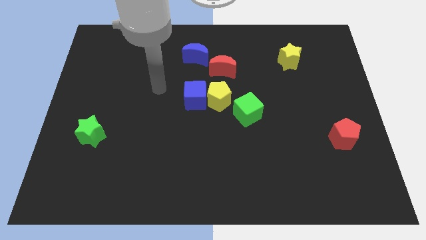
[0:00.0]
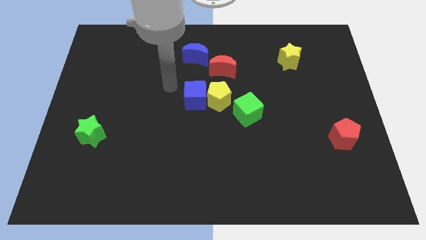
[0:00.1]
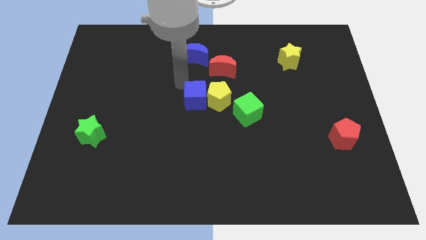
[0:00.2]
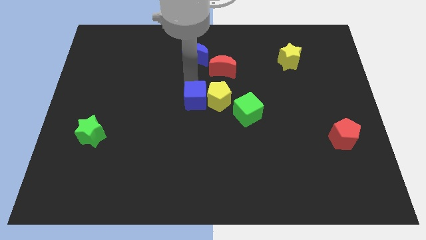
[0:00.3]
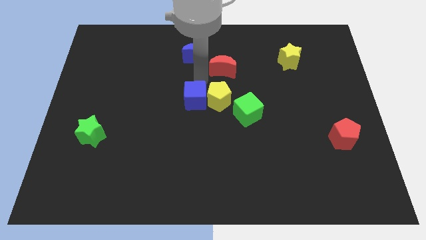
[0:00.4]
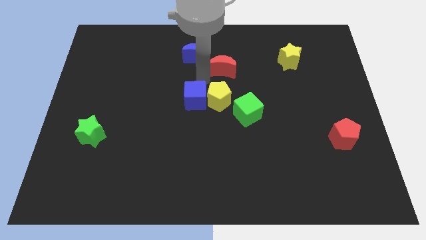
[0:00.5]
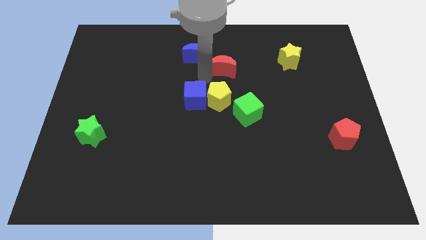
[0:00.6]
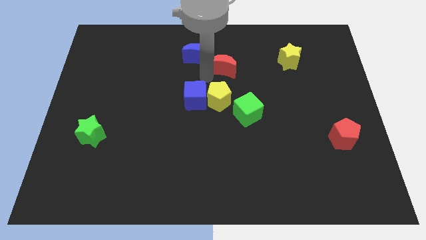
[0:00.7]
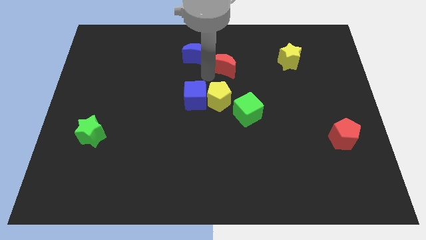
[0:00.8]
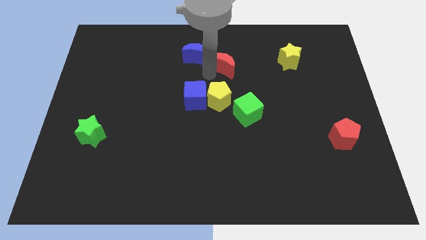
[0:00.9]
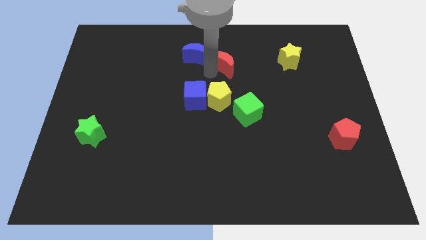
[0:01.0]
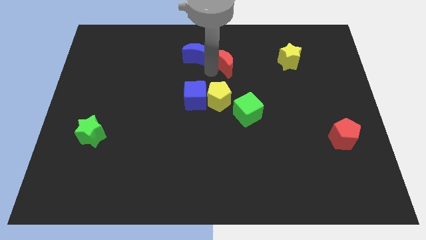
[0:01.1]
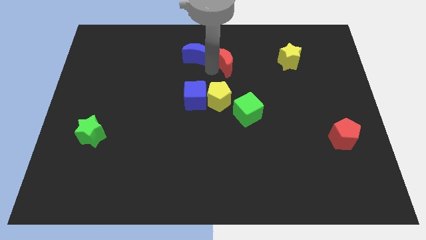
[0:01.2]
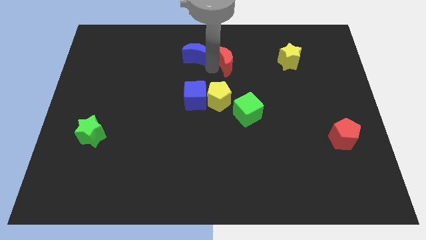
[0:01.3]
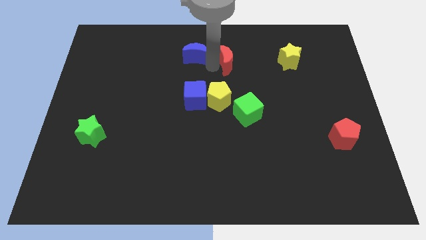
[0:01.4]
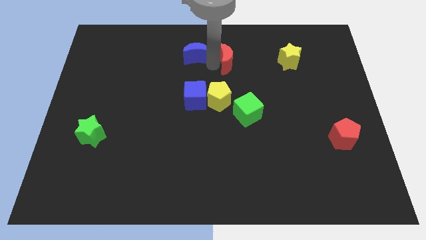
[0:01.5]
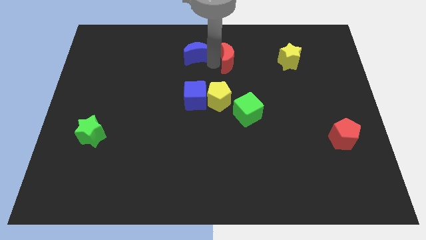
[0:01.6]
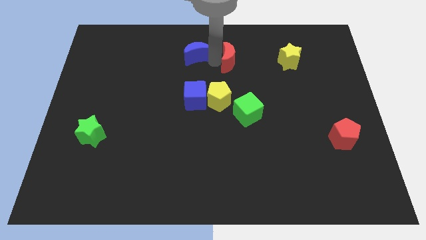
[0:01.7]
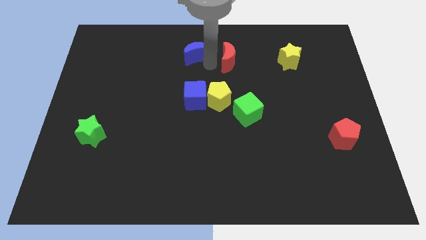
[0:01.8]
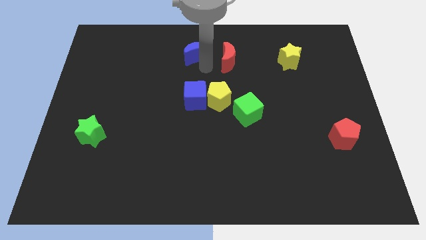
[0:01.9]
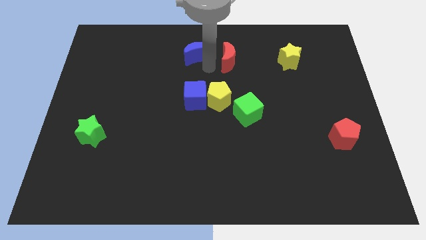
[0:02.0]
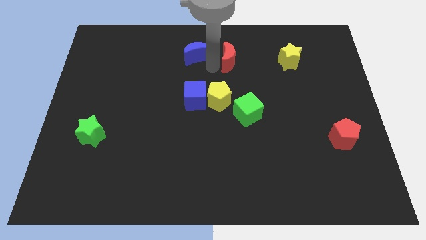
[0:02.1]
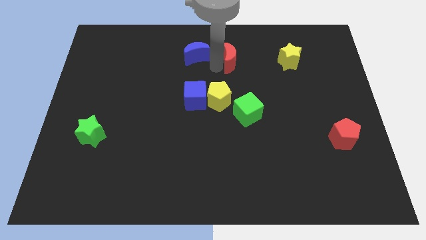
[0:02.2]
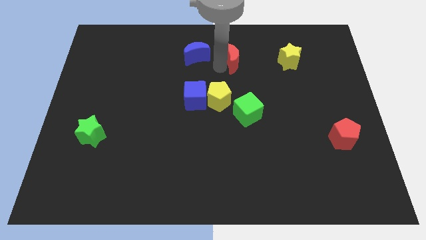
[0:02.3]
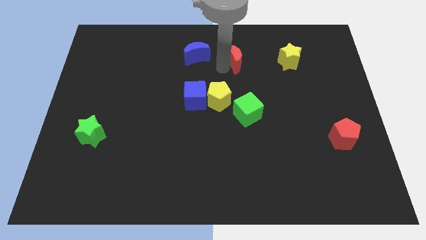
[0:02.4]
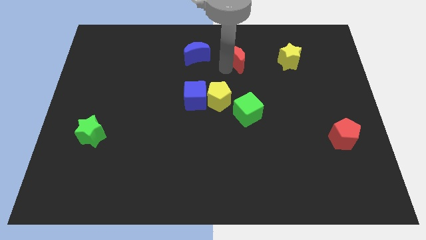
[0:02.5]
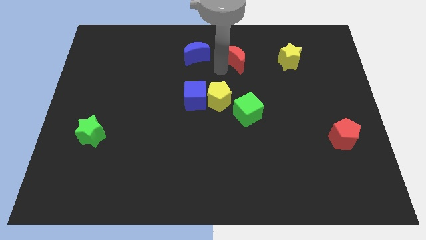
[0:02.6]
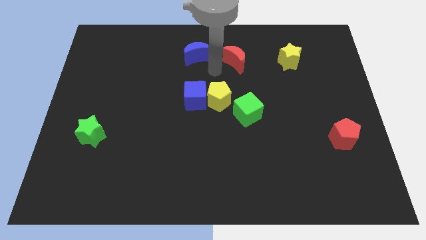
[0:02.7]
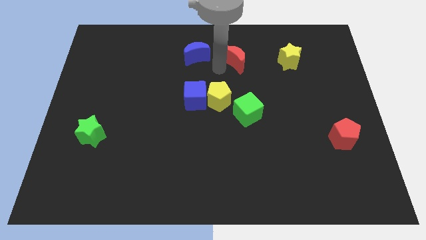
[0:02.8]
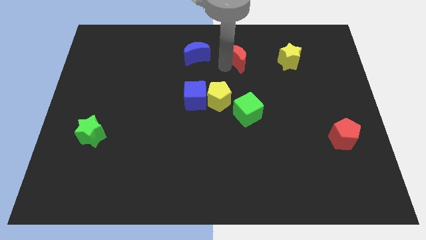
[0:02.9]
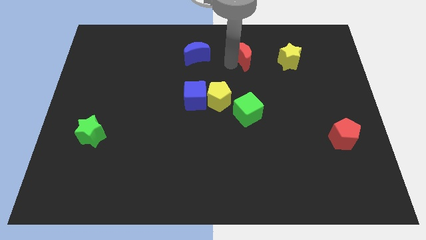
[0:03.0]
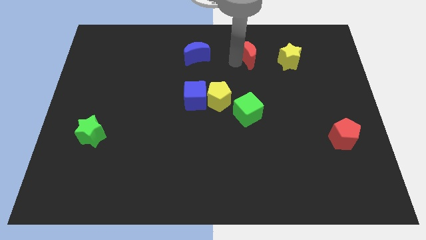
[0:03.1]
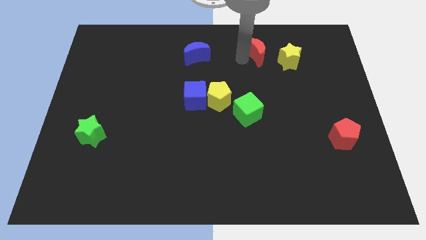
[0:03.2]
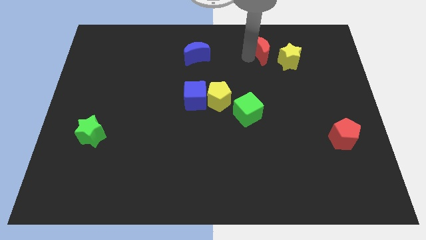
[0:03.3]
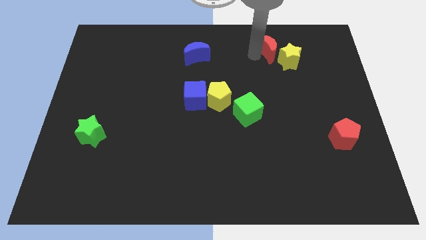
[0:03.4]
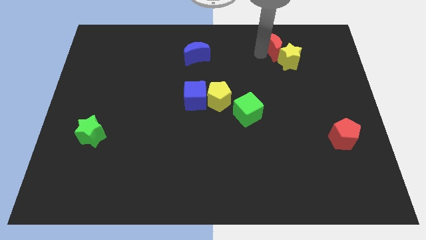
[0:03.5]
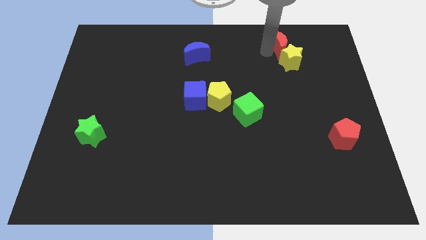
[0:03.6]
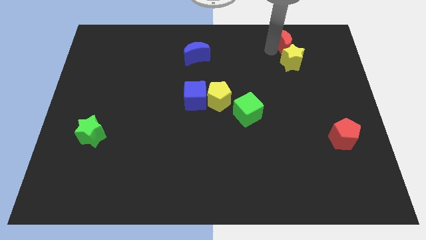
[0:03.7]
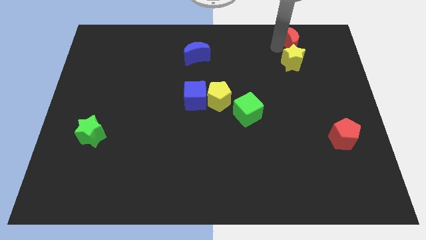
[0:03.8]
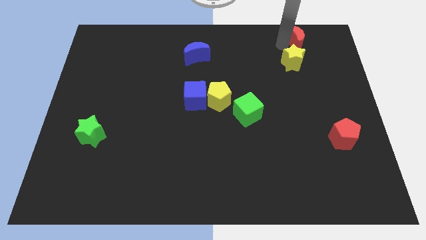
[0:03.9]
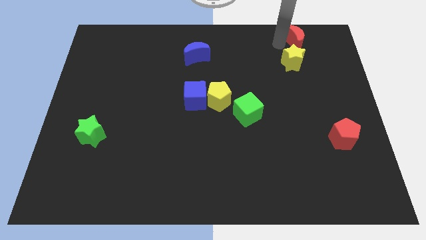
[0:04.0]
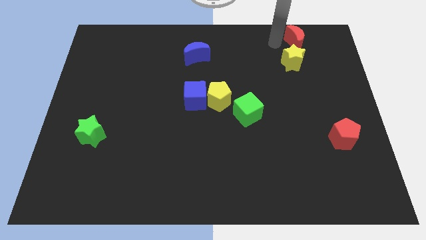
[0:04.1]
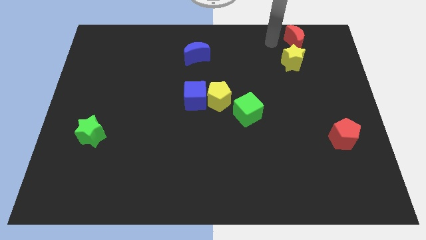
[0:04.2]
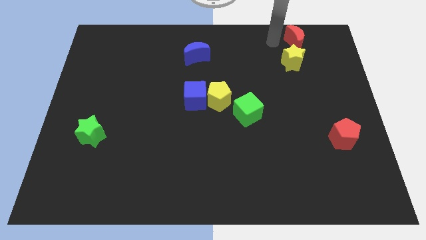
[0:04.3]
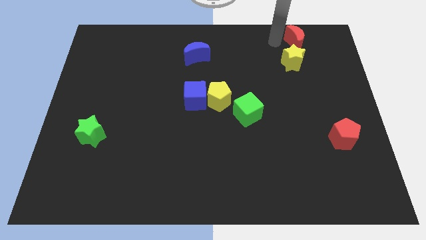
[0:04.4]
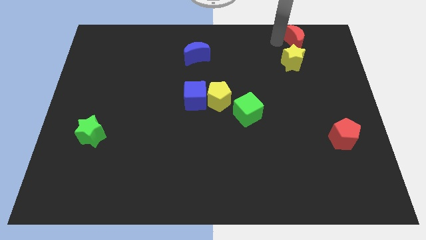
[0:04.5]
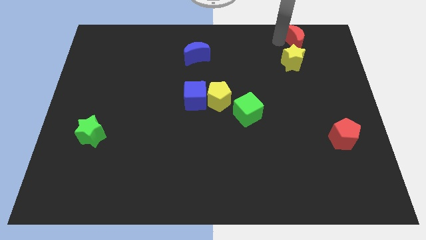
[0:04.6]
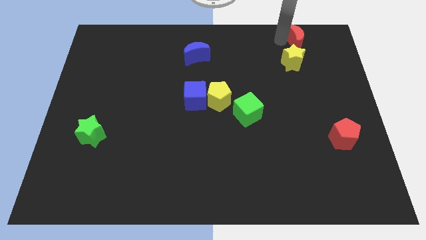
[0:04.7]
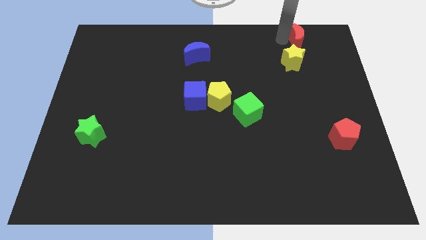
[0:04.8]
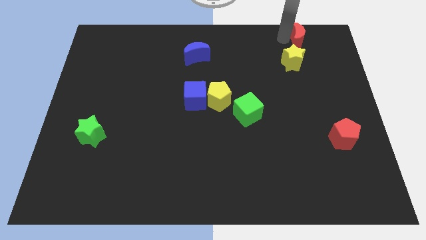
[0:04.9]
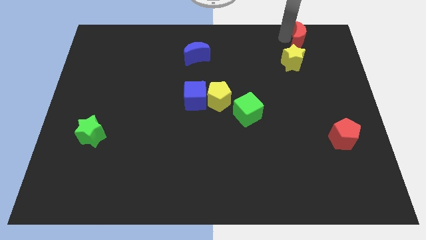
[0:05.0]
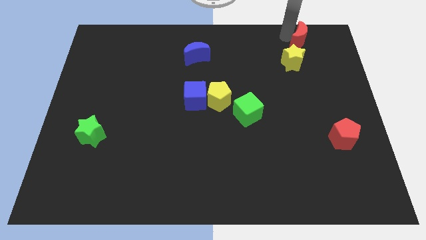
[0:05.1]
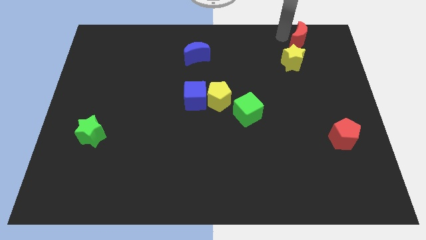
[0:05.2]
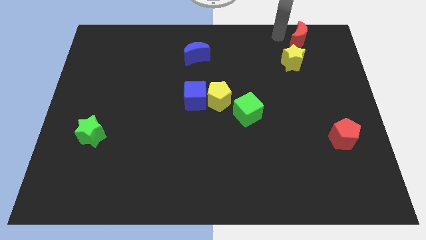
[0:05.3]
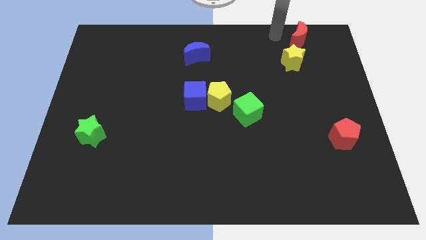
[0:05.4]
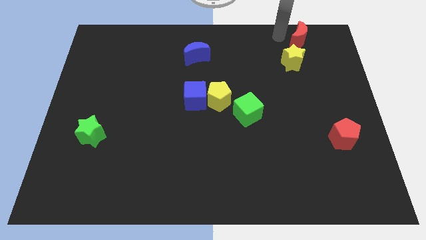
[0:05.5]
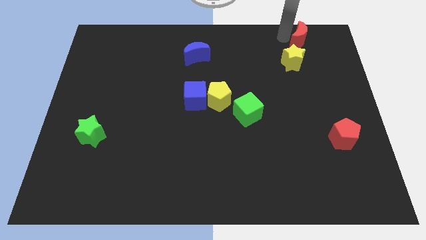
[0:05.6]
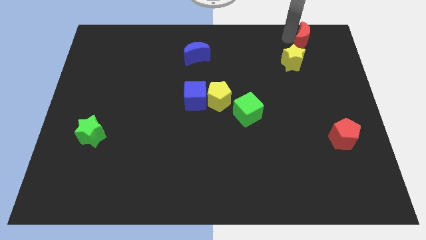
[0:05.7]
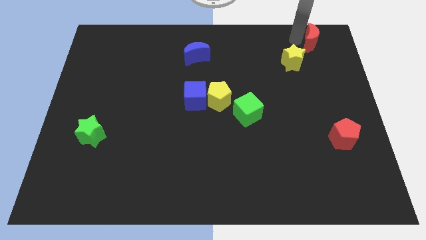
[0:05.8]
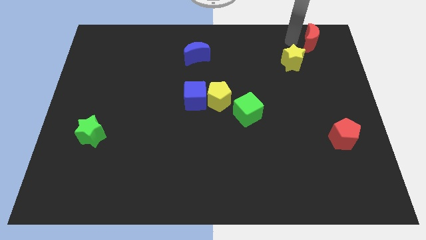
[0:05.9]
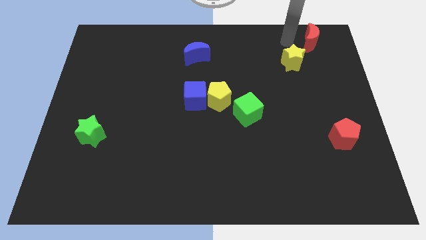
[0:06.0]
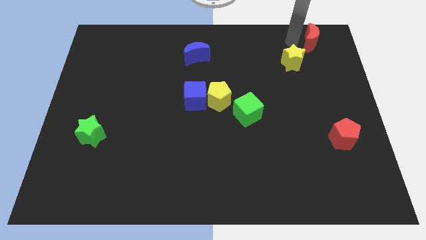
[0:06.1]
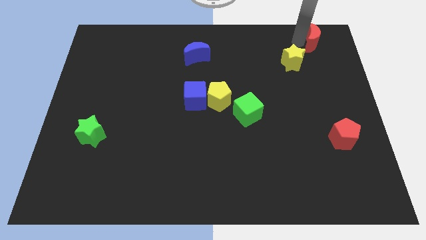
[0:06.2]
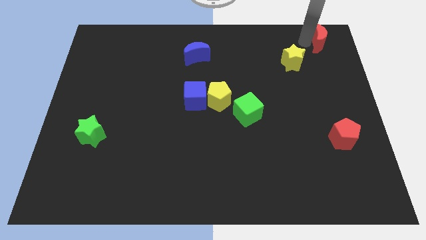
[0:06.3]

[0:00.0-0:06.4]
slide the red moon to the top right corner
